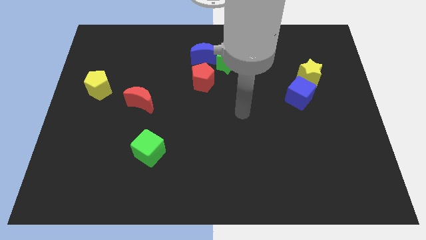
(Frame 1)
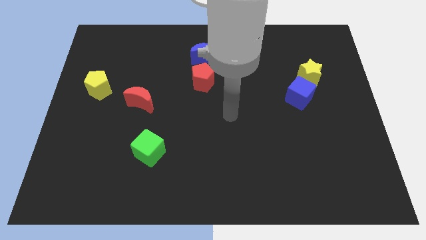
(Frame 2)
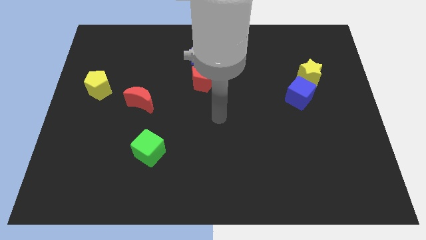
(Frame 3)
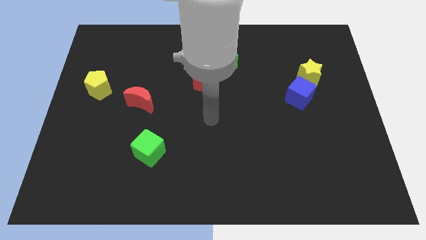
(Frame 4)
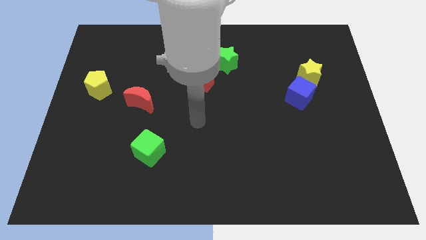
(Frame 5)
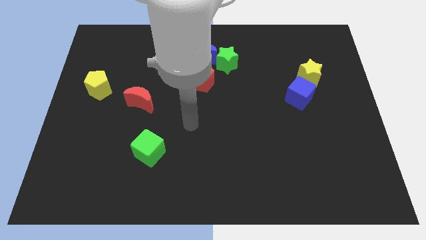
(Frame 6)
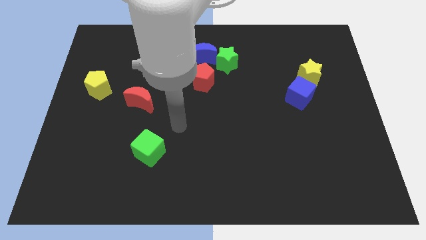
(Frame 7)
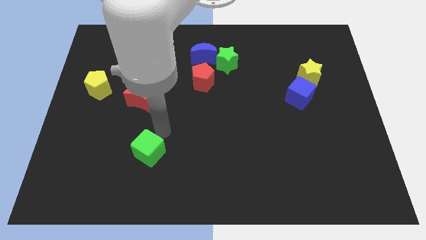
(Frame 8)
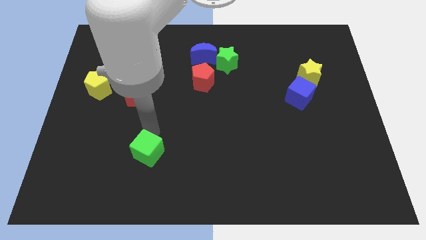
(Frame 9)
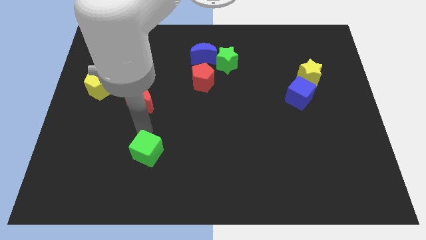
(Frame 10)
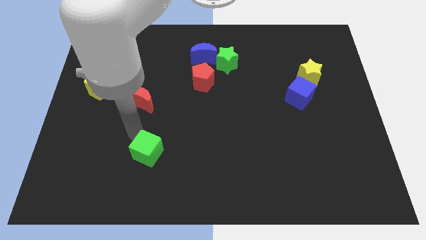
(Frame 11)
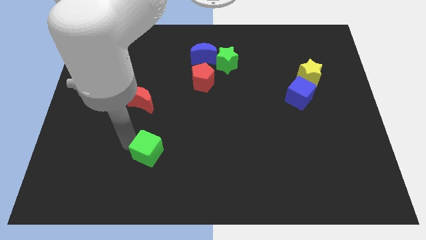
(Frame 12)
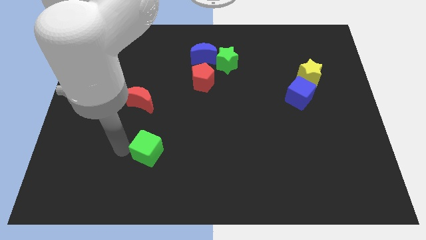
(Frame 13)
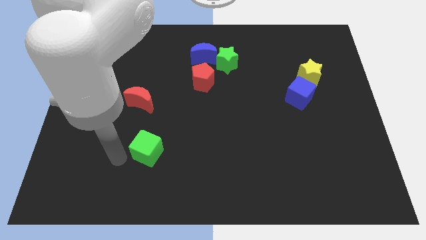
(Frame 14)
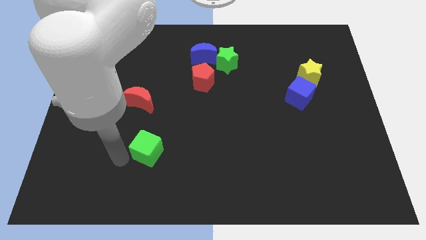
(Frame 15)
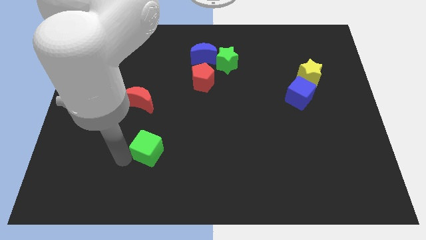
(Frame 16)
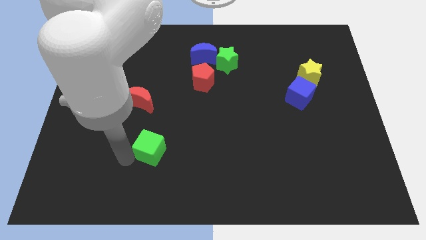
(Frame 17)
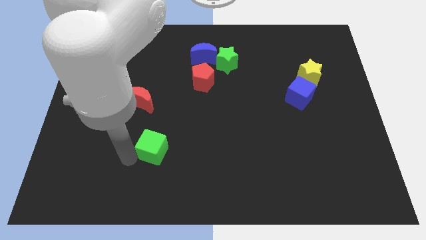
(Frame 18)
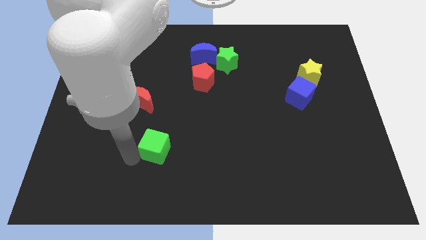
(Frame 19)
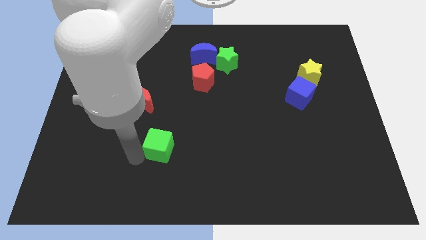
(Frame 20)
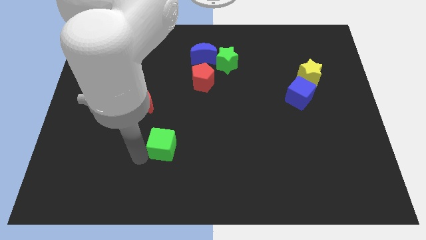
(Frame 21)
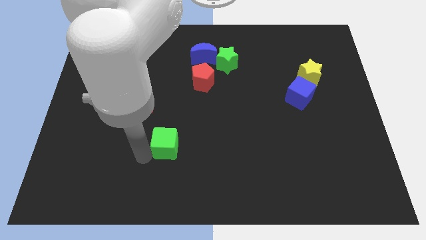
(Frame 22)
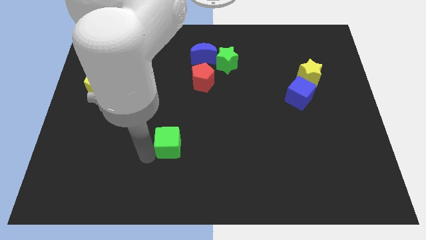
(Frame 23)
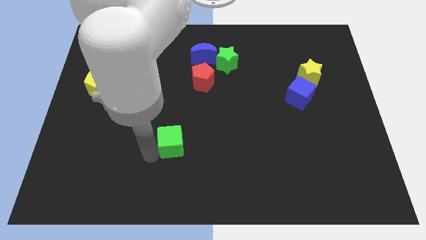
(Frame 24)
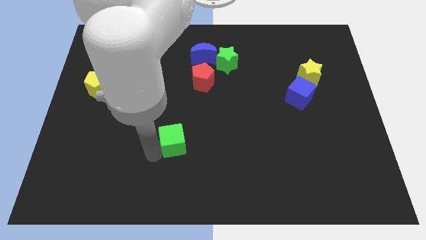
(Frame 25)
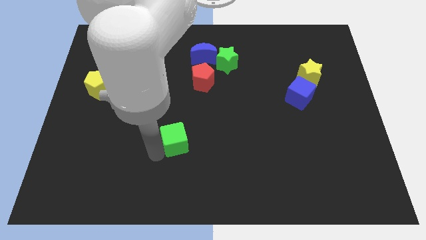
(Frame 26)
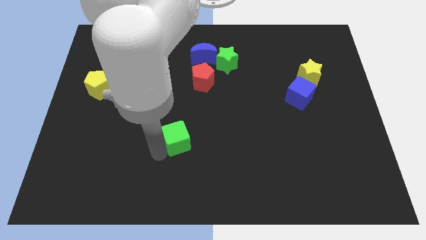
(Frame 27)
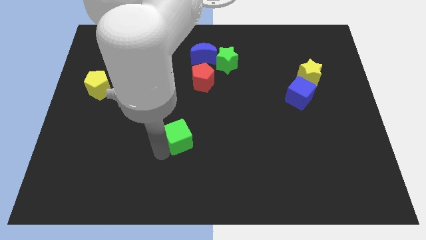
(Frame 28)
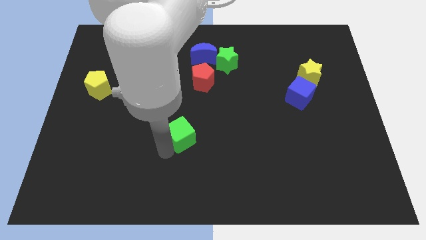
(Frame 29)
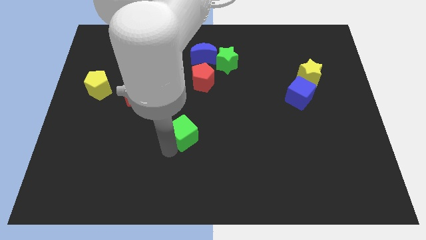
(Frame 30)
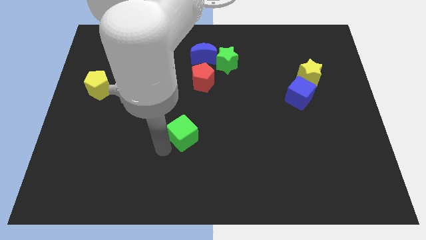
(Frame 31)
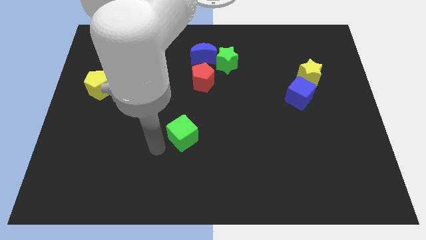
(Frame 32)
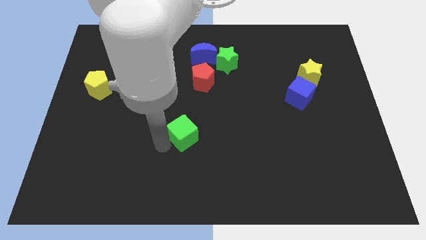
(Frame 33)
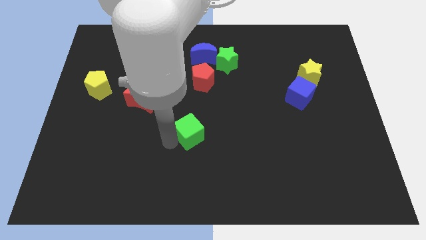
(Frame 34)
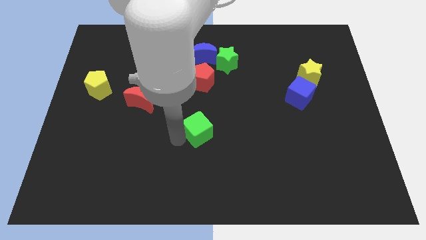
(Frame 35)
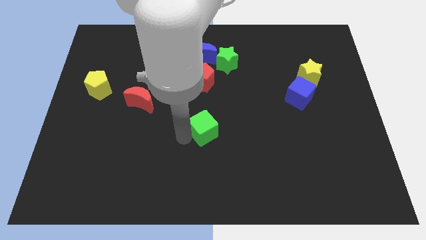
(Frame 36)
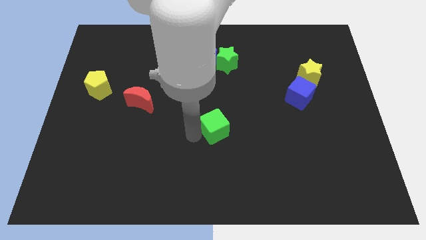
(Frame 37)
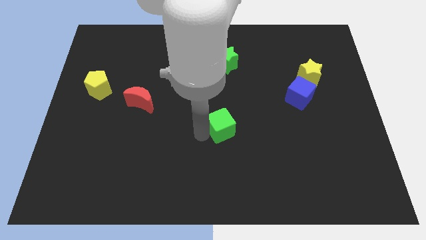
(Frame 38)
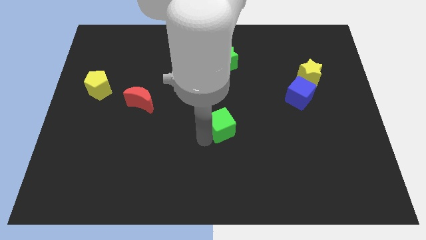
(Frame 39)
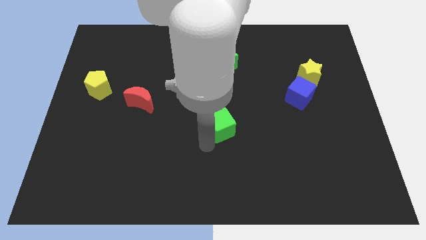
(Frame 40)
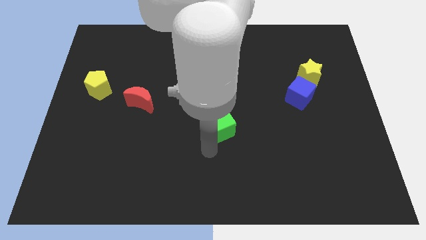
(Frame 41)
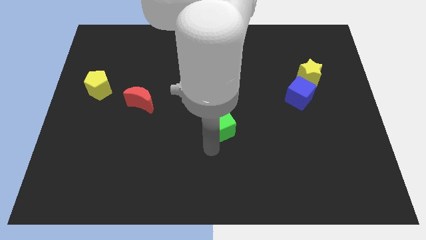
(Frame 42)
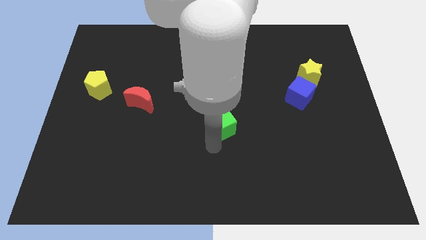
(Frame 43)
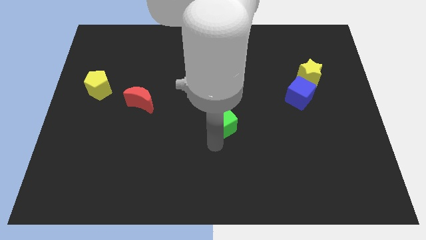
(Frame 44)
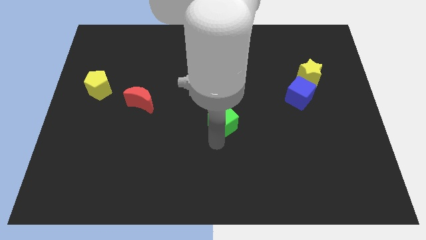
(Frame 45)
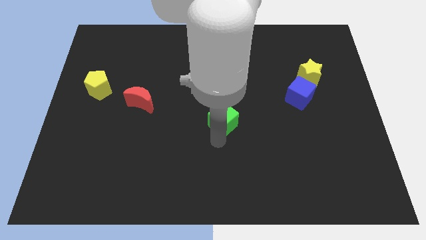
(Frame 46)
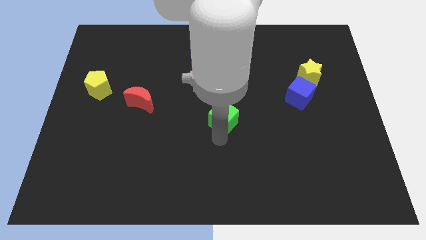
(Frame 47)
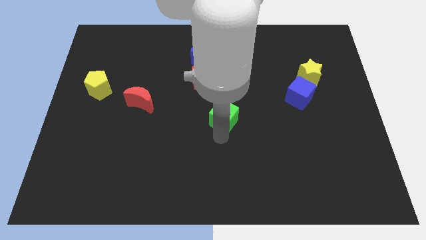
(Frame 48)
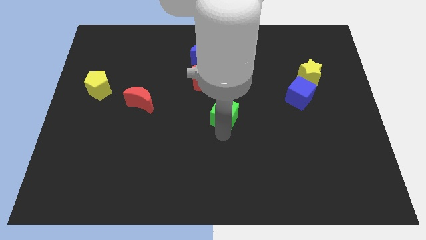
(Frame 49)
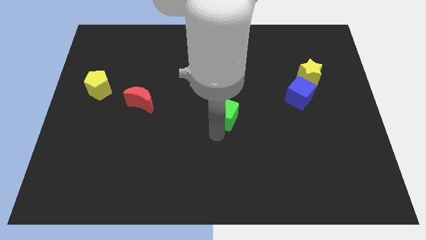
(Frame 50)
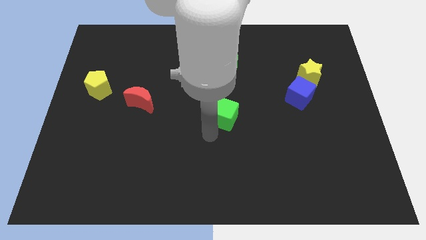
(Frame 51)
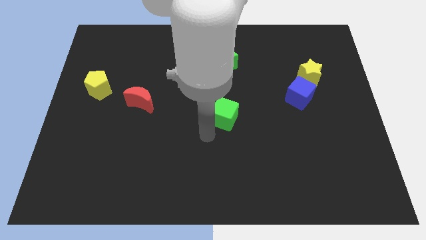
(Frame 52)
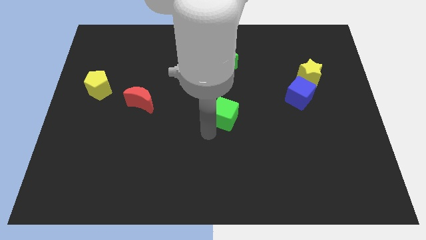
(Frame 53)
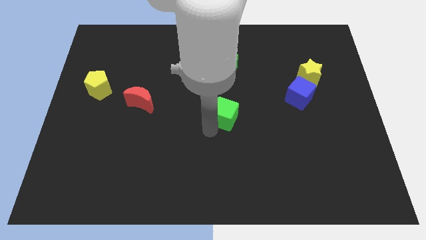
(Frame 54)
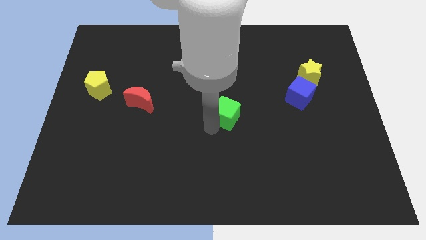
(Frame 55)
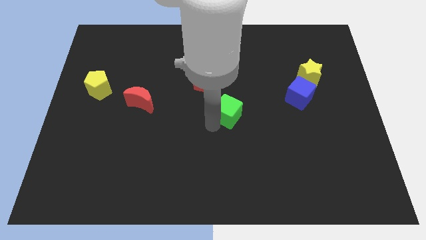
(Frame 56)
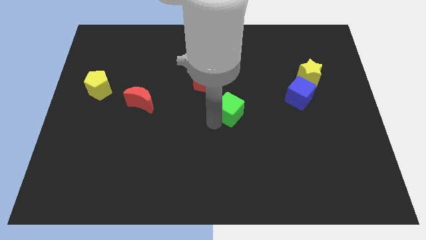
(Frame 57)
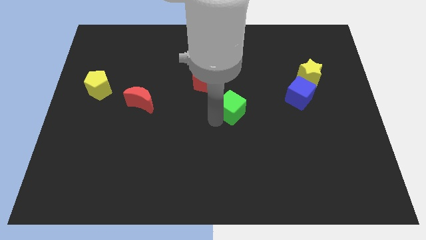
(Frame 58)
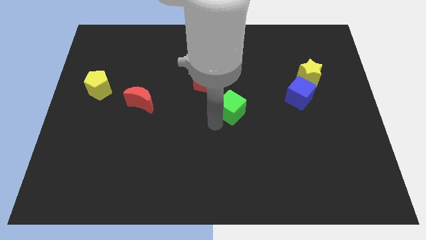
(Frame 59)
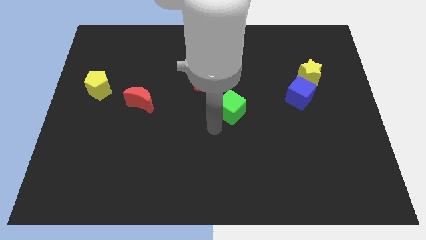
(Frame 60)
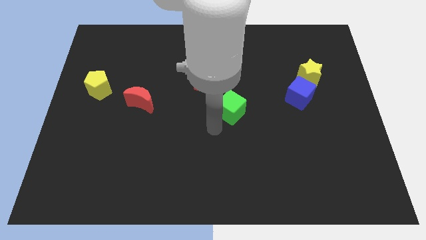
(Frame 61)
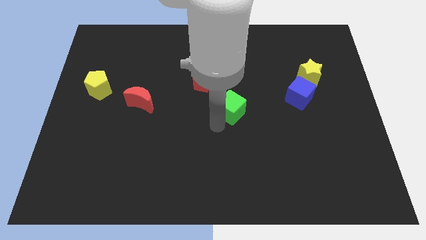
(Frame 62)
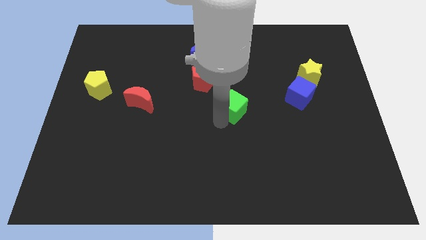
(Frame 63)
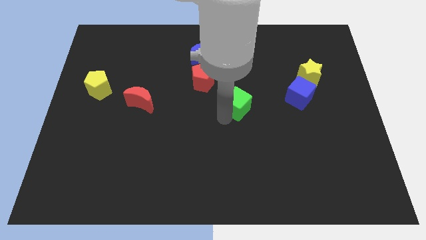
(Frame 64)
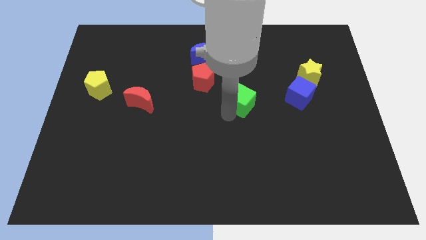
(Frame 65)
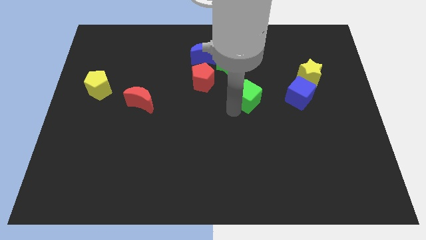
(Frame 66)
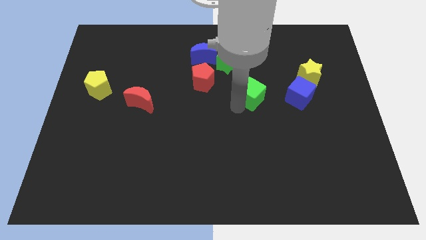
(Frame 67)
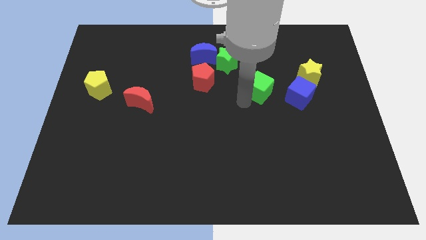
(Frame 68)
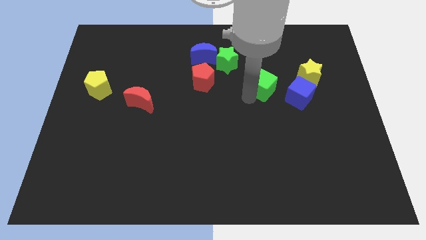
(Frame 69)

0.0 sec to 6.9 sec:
put the green cube to the top left side of the blue cube
